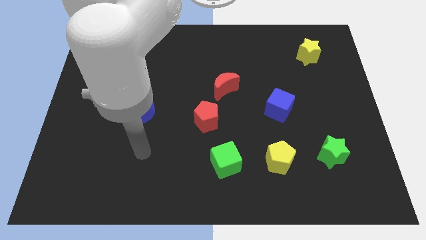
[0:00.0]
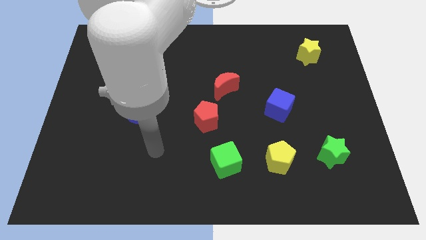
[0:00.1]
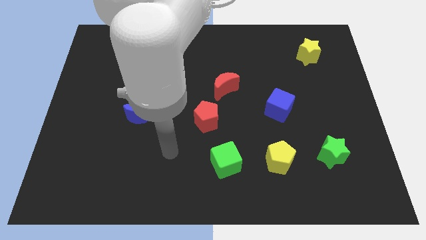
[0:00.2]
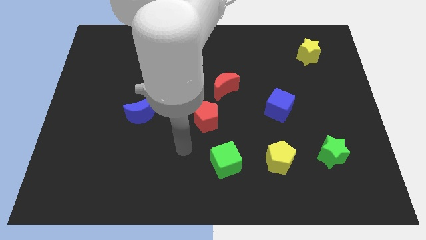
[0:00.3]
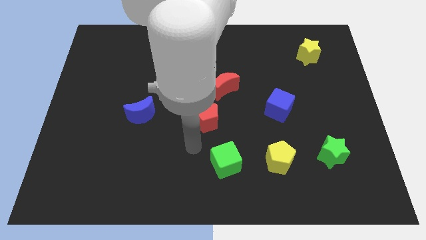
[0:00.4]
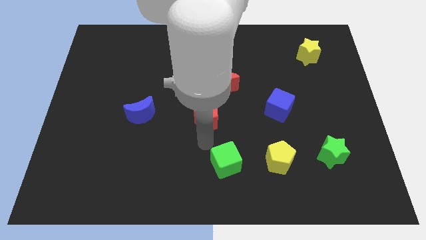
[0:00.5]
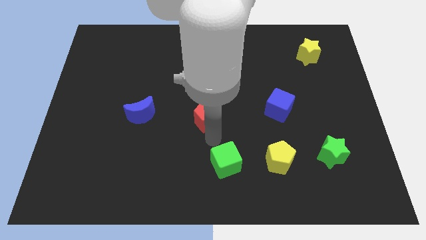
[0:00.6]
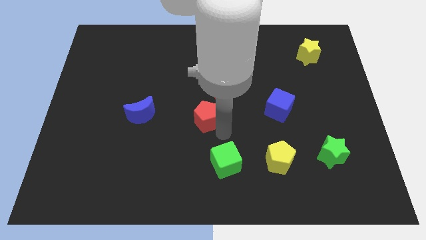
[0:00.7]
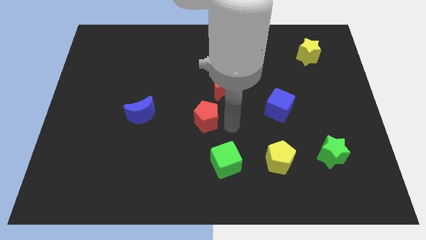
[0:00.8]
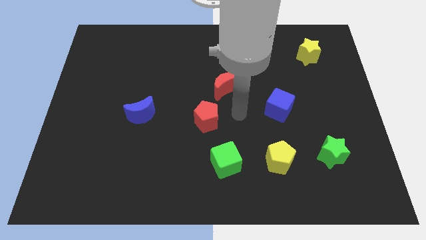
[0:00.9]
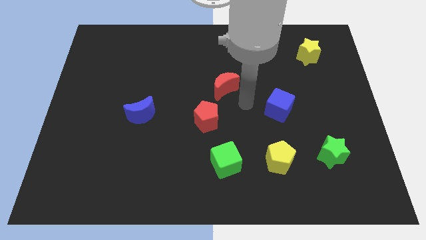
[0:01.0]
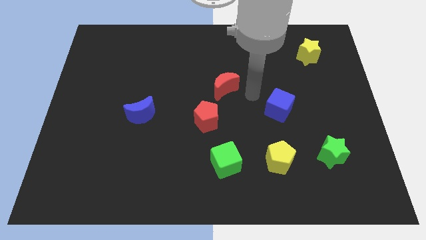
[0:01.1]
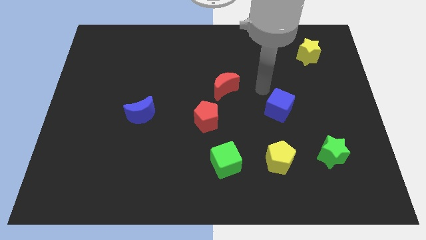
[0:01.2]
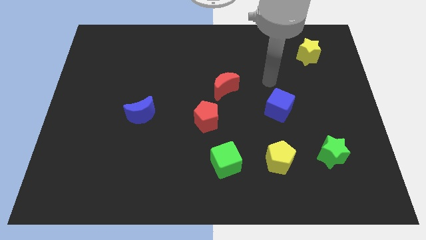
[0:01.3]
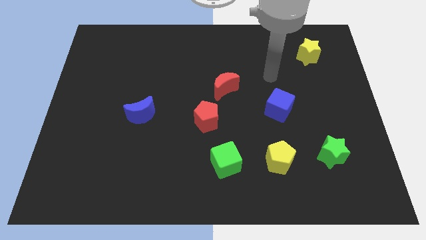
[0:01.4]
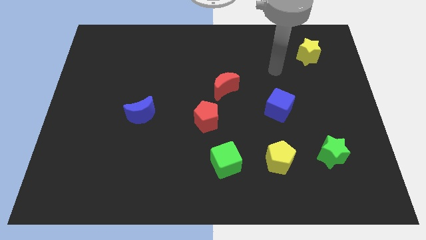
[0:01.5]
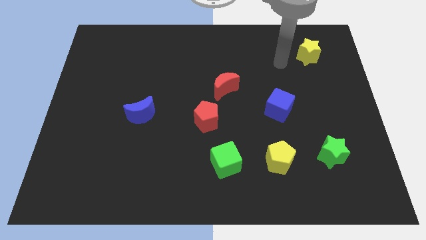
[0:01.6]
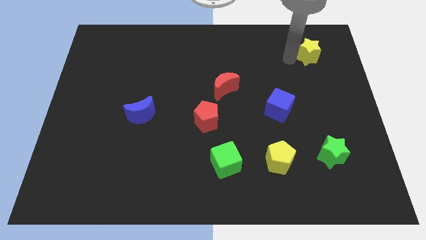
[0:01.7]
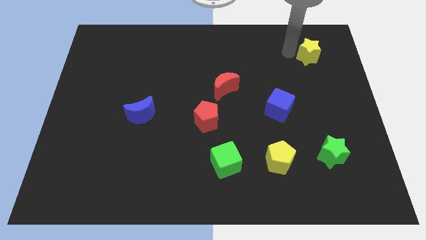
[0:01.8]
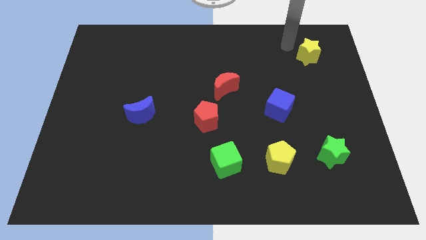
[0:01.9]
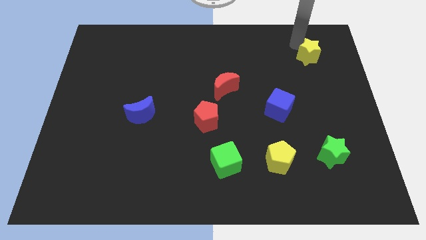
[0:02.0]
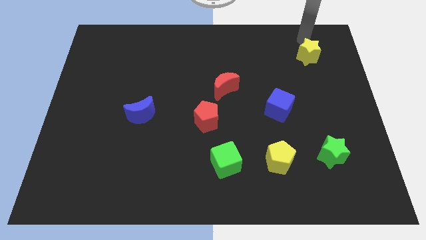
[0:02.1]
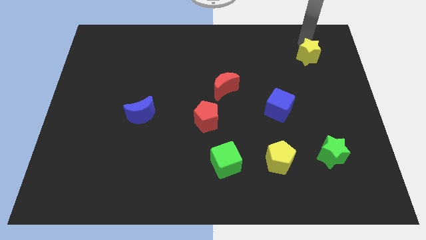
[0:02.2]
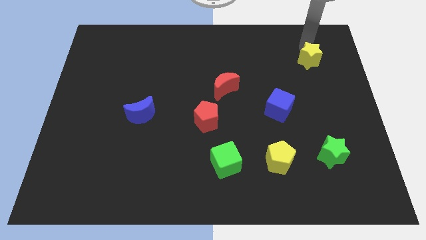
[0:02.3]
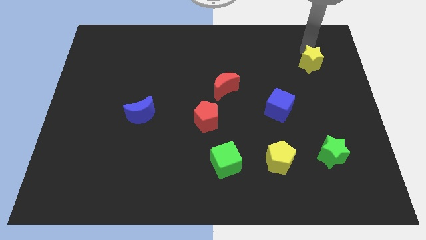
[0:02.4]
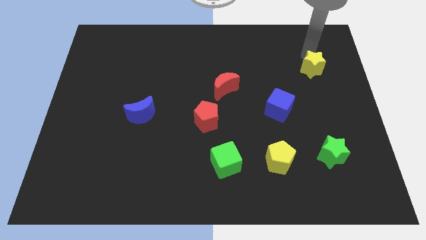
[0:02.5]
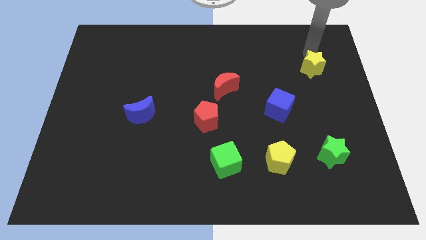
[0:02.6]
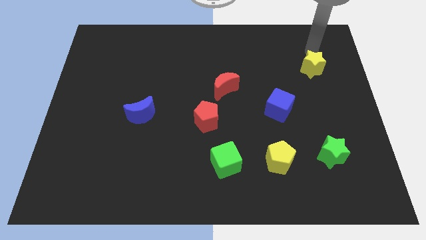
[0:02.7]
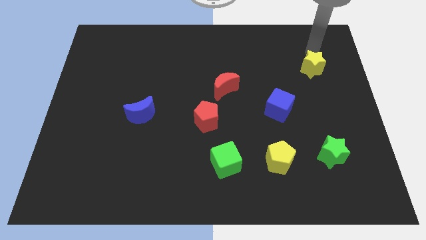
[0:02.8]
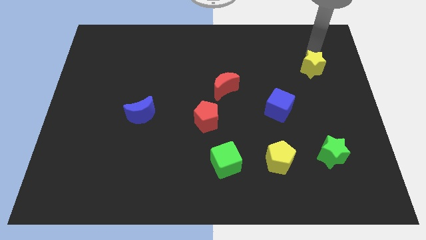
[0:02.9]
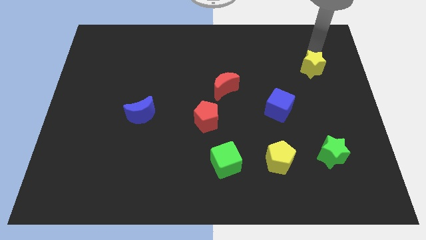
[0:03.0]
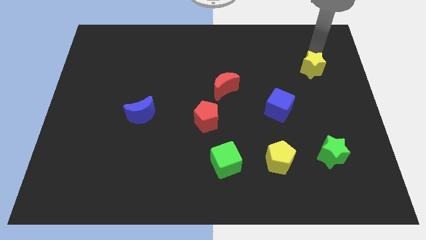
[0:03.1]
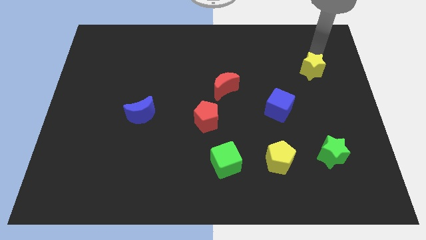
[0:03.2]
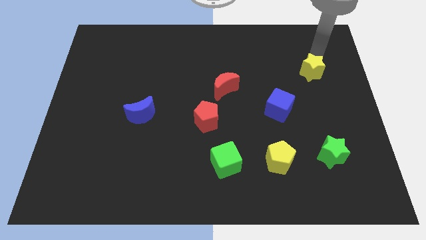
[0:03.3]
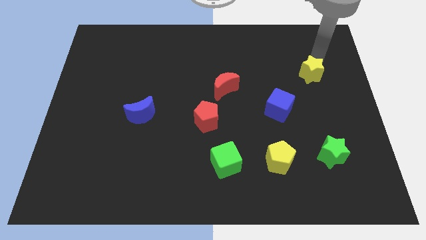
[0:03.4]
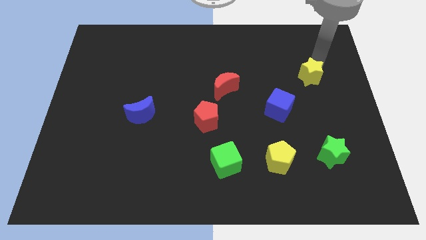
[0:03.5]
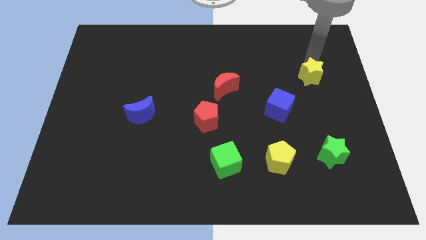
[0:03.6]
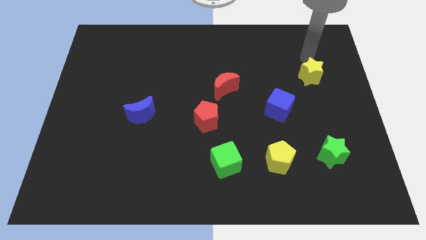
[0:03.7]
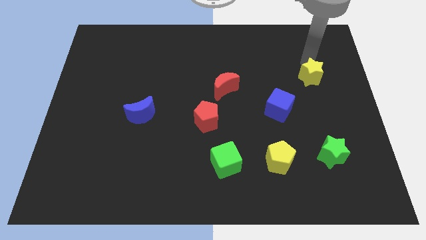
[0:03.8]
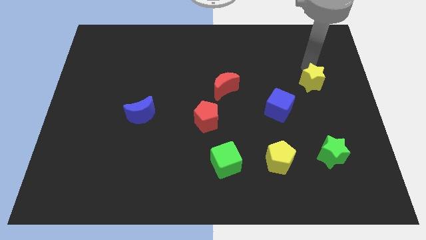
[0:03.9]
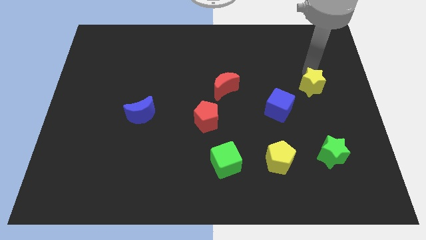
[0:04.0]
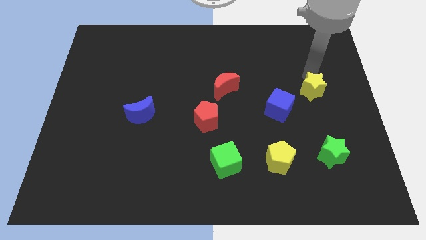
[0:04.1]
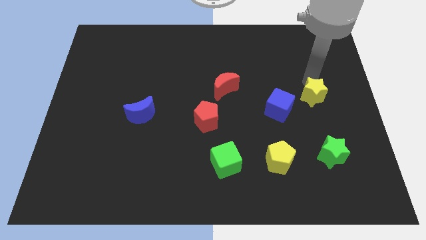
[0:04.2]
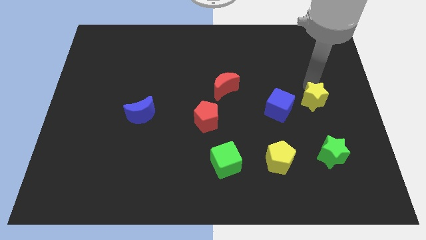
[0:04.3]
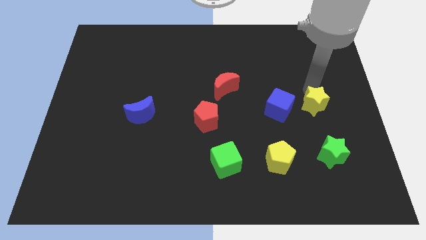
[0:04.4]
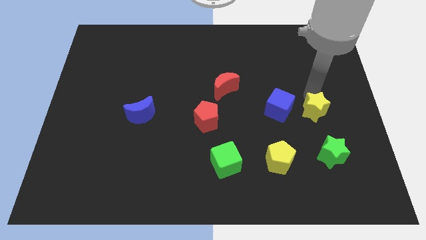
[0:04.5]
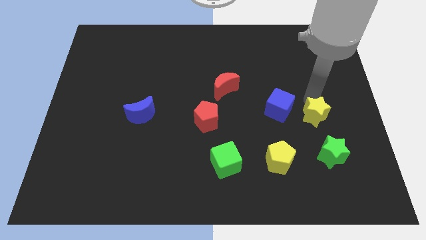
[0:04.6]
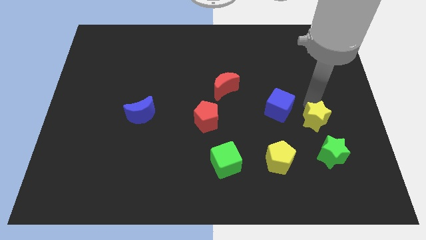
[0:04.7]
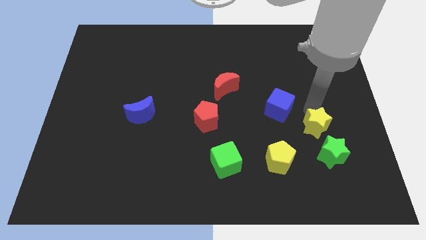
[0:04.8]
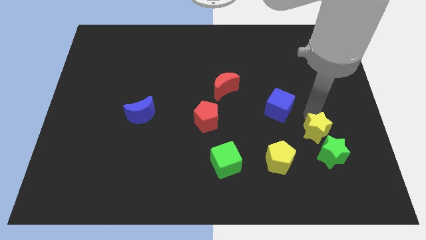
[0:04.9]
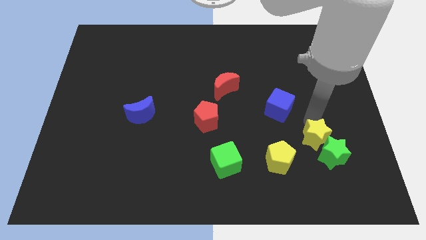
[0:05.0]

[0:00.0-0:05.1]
put the yellow star close to the green star

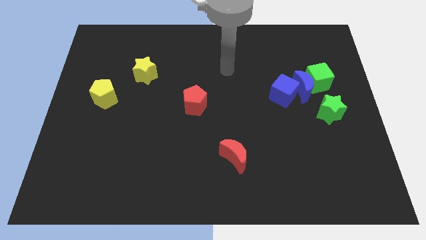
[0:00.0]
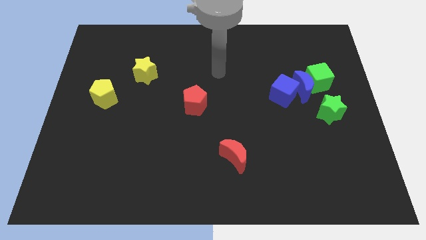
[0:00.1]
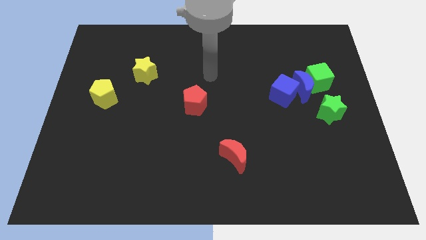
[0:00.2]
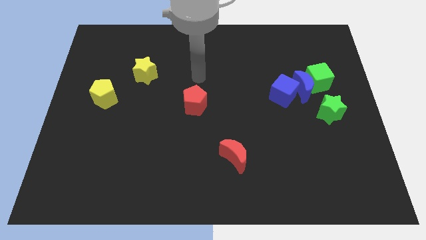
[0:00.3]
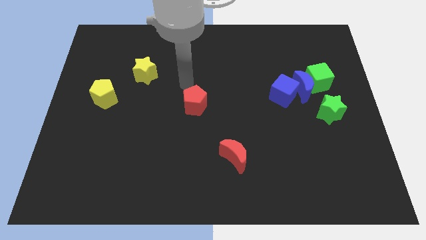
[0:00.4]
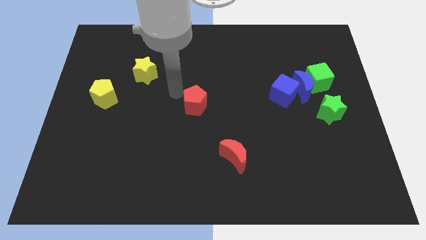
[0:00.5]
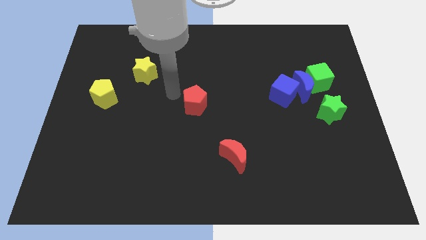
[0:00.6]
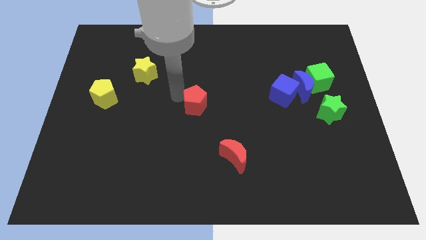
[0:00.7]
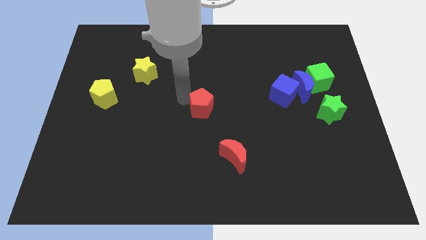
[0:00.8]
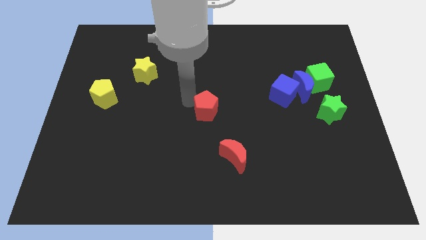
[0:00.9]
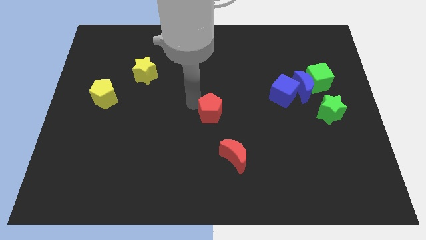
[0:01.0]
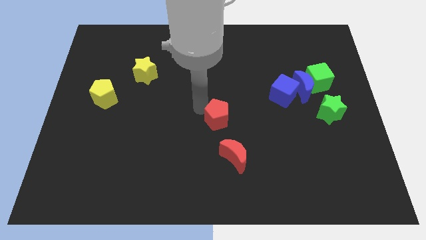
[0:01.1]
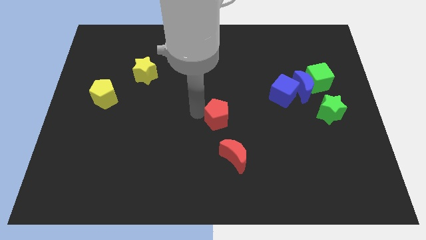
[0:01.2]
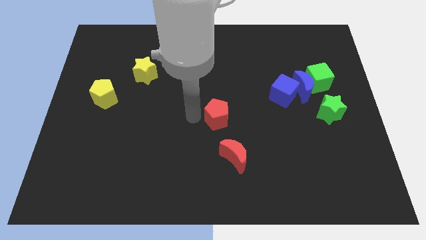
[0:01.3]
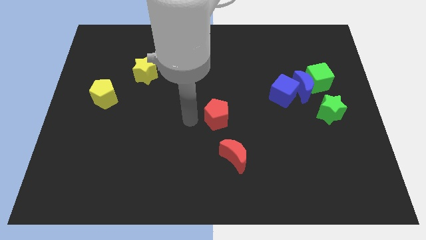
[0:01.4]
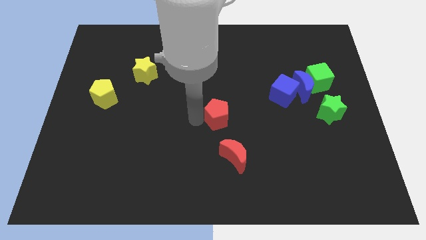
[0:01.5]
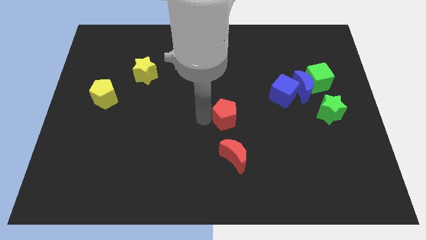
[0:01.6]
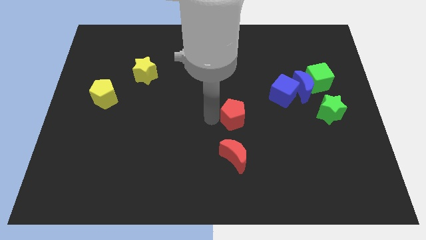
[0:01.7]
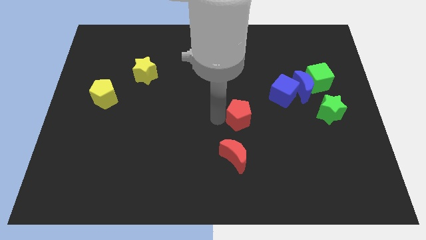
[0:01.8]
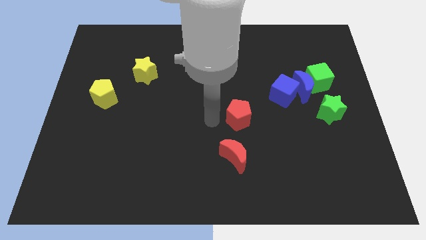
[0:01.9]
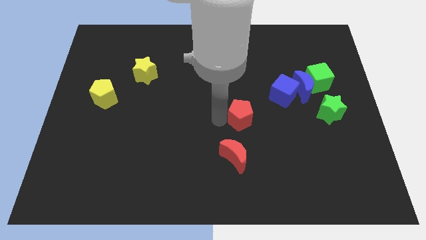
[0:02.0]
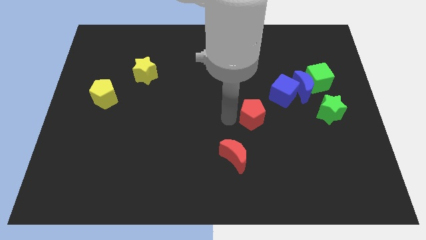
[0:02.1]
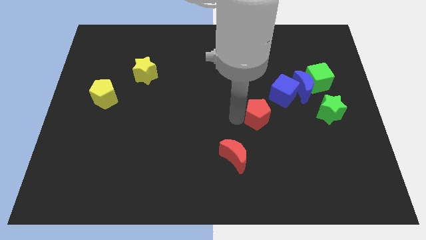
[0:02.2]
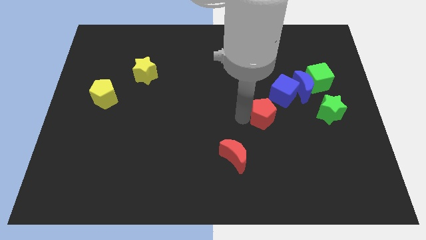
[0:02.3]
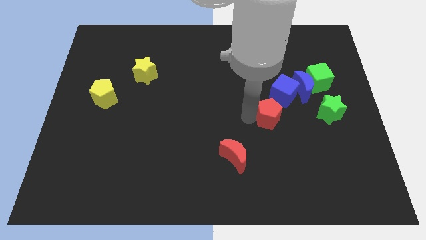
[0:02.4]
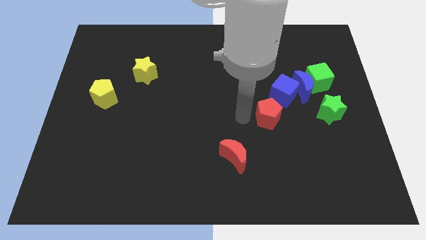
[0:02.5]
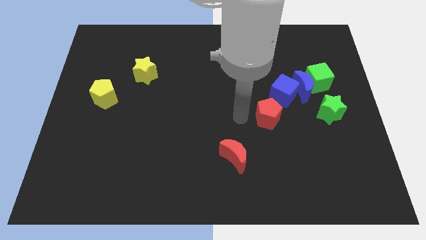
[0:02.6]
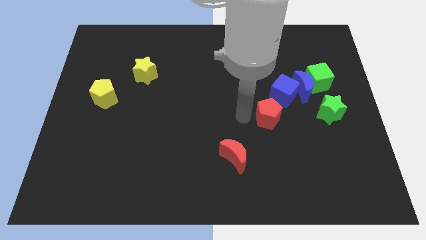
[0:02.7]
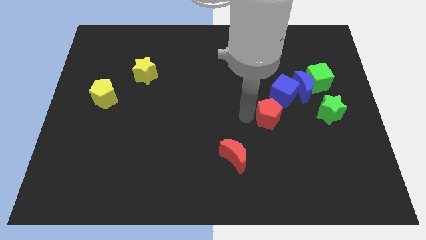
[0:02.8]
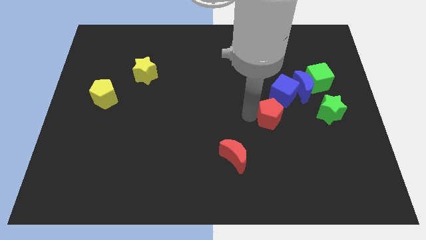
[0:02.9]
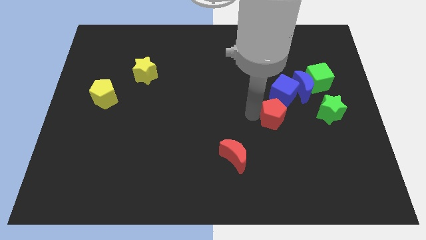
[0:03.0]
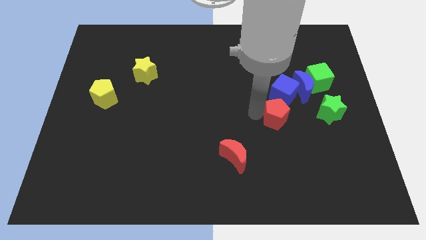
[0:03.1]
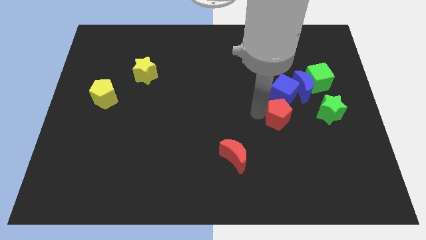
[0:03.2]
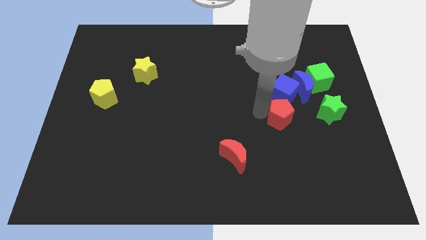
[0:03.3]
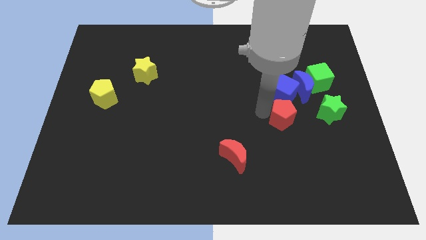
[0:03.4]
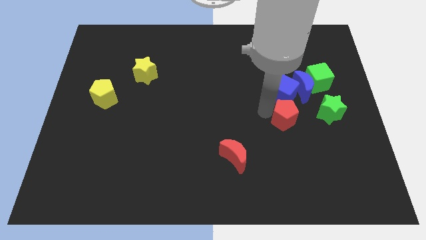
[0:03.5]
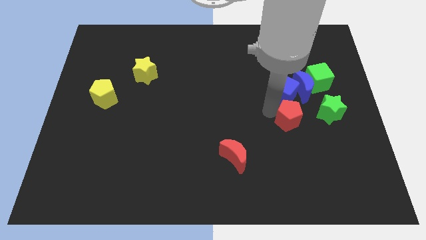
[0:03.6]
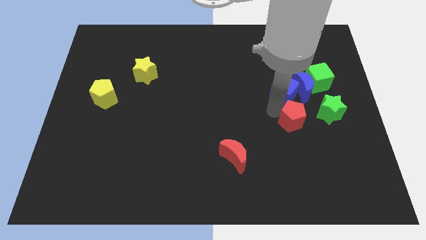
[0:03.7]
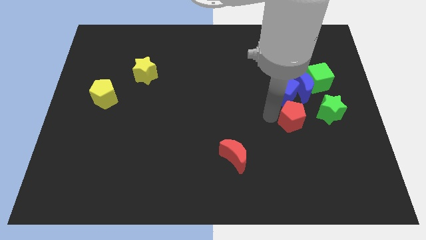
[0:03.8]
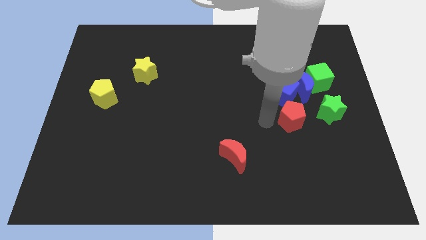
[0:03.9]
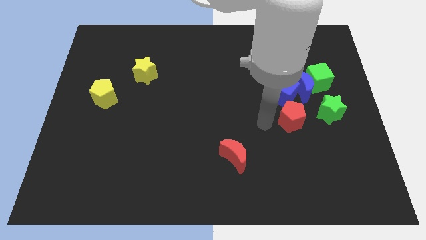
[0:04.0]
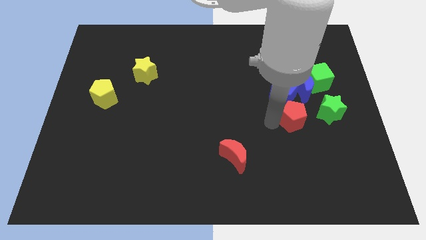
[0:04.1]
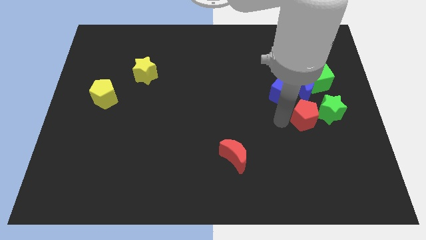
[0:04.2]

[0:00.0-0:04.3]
move the red pentagon next to the green star
